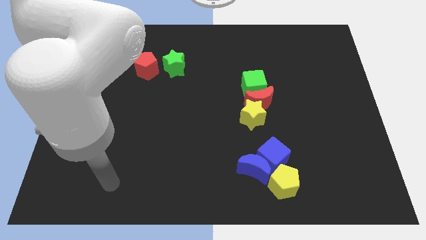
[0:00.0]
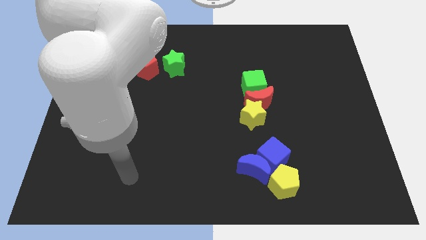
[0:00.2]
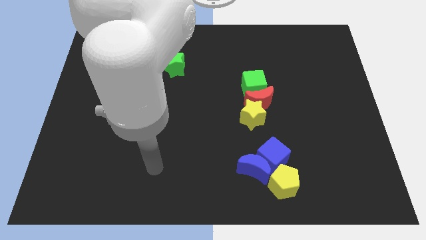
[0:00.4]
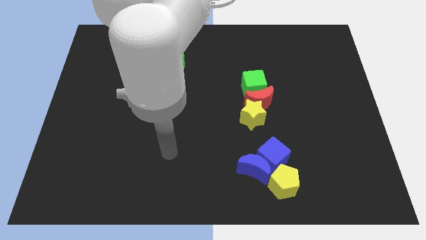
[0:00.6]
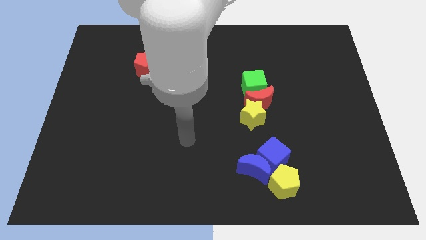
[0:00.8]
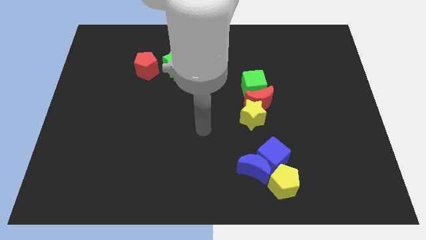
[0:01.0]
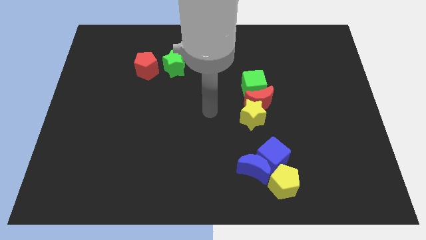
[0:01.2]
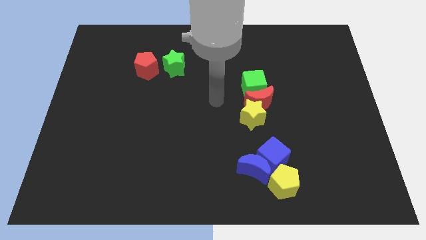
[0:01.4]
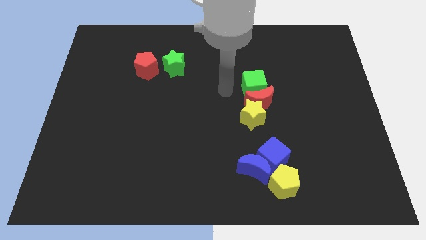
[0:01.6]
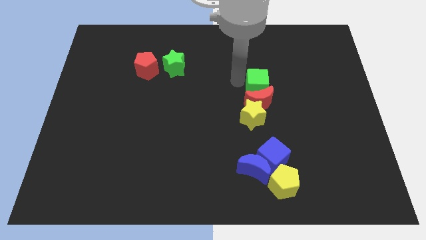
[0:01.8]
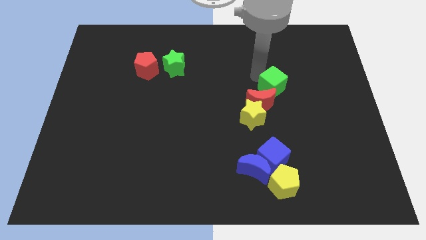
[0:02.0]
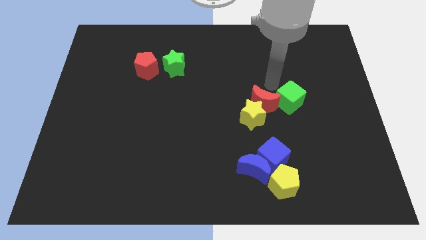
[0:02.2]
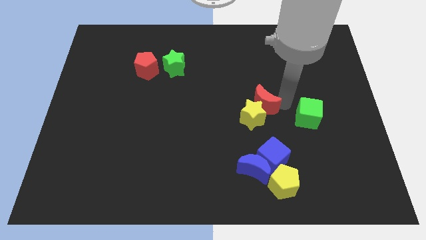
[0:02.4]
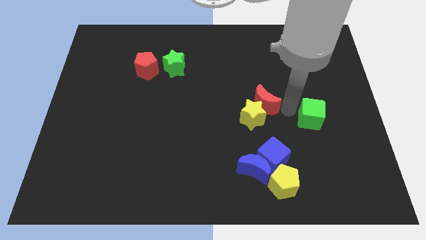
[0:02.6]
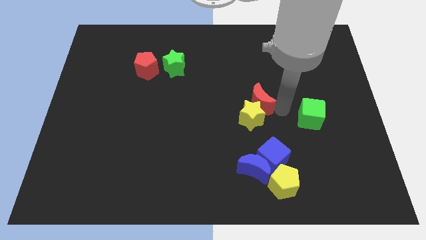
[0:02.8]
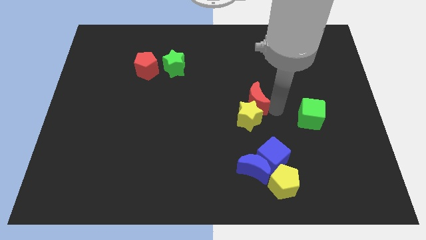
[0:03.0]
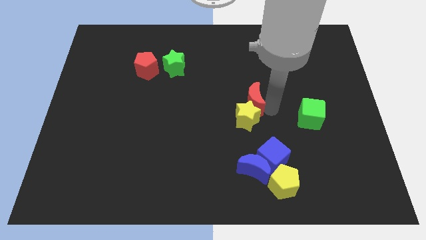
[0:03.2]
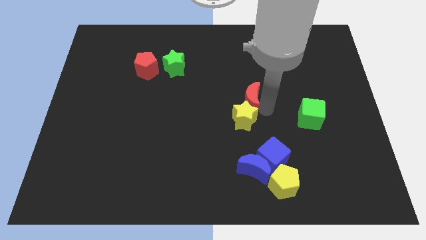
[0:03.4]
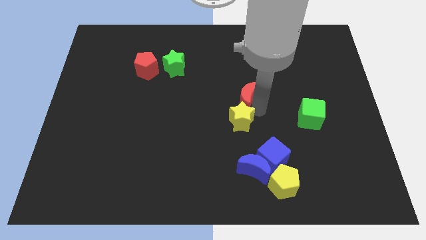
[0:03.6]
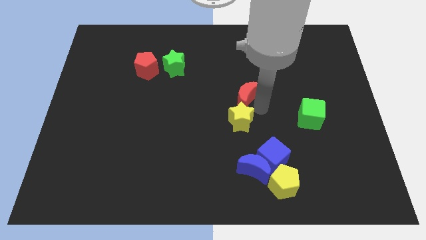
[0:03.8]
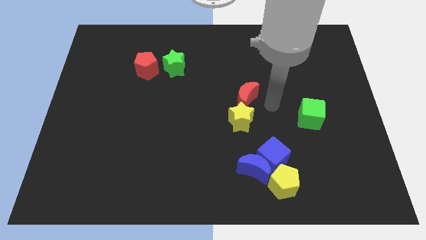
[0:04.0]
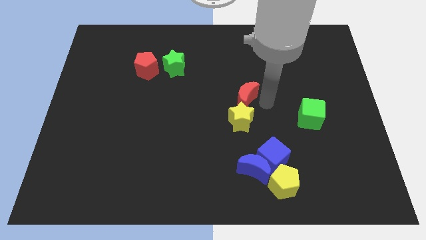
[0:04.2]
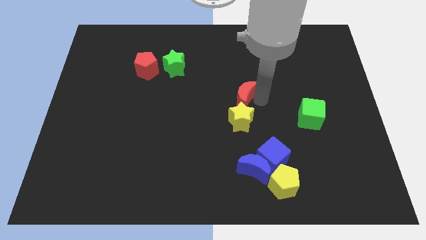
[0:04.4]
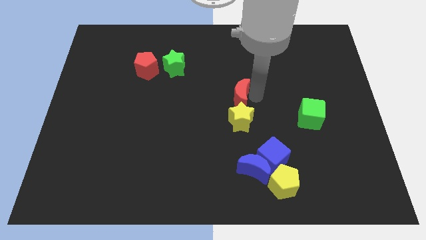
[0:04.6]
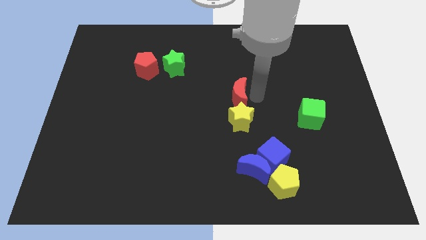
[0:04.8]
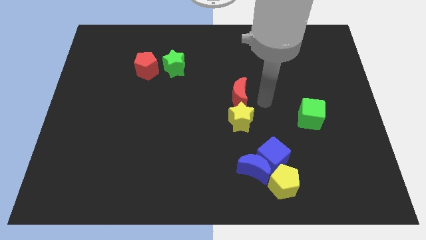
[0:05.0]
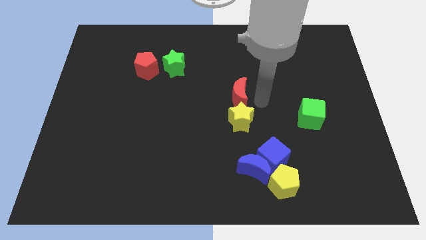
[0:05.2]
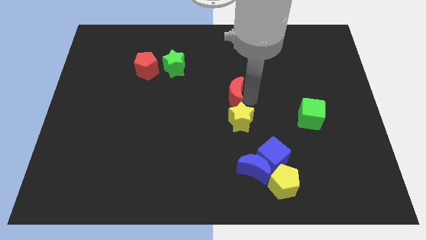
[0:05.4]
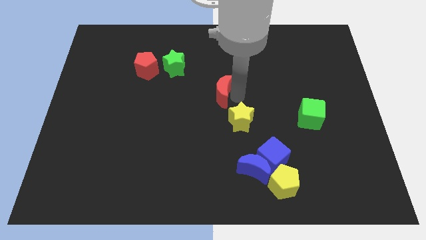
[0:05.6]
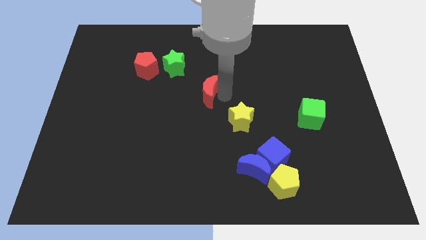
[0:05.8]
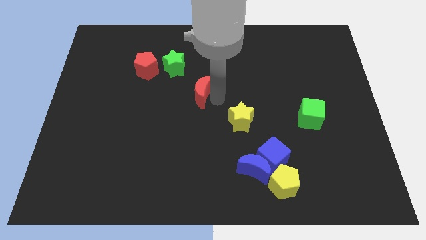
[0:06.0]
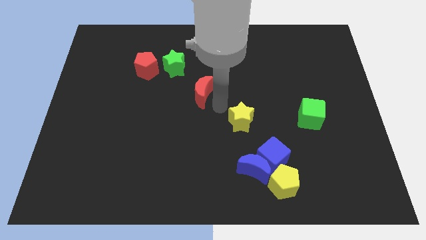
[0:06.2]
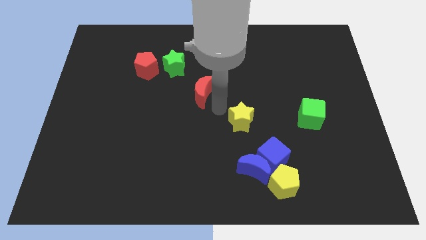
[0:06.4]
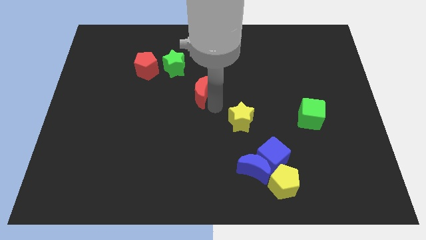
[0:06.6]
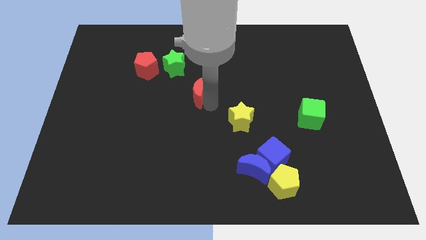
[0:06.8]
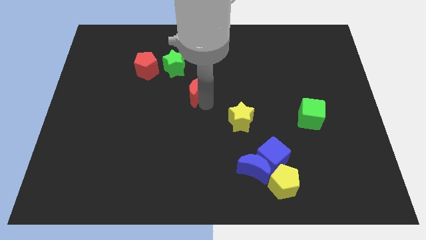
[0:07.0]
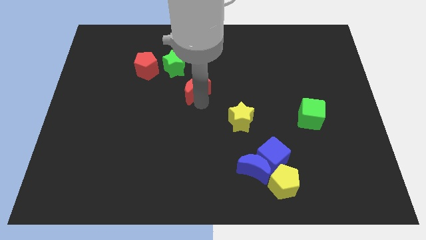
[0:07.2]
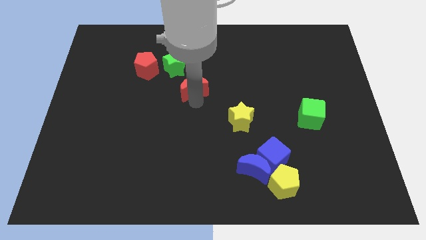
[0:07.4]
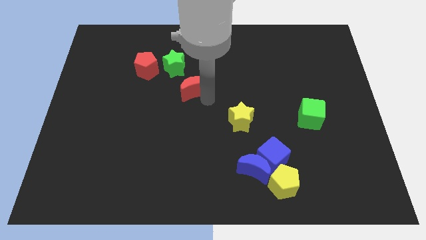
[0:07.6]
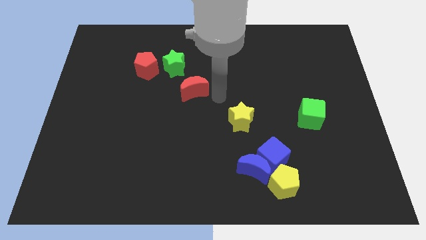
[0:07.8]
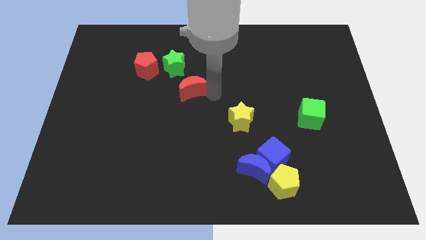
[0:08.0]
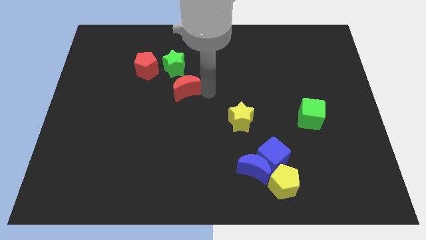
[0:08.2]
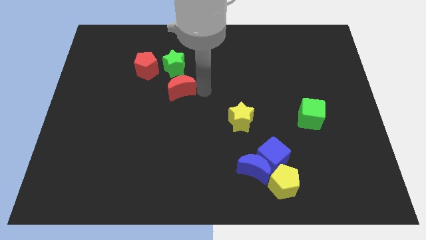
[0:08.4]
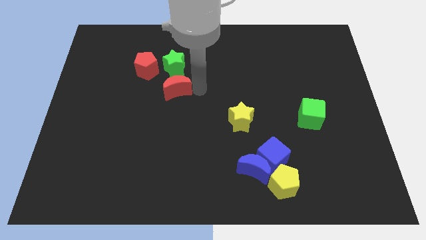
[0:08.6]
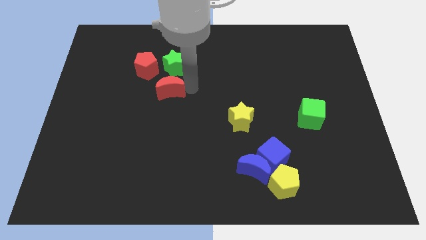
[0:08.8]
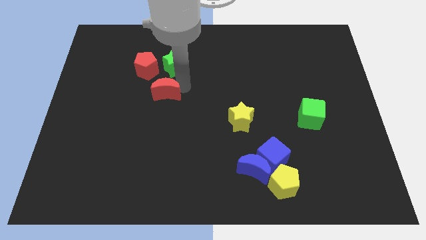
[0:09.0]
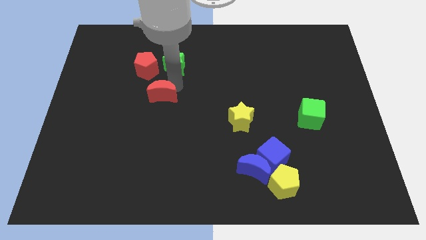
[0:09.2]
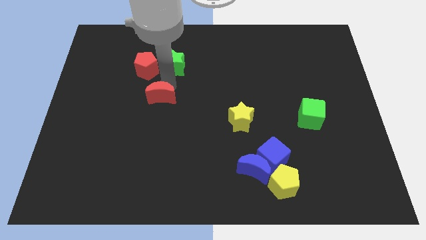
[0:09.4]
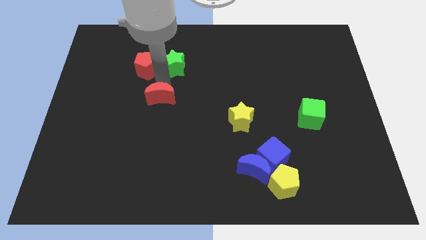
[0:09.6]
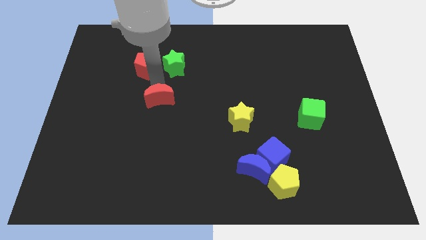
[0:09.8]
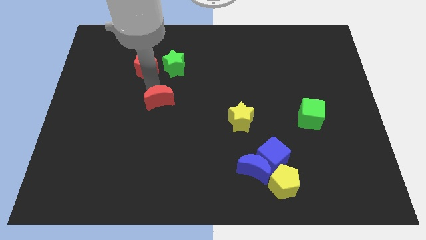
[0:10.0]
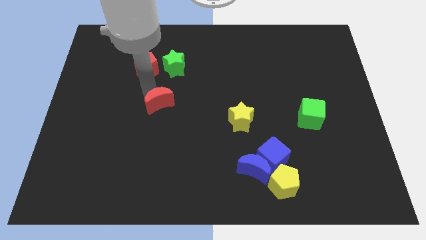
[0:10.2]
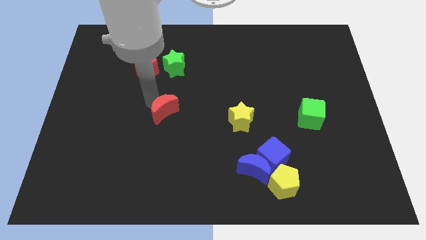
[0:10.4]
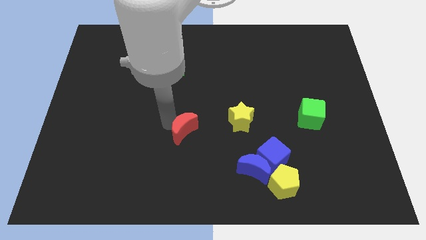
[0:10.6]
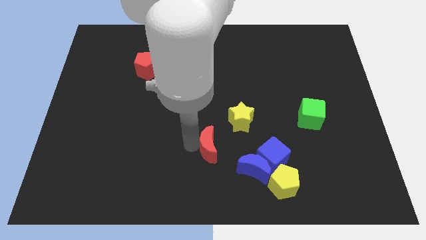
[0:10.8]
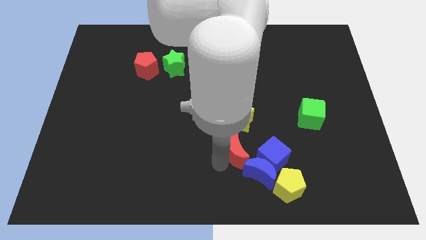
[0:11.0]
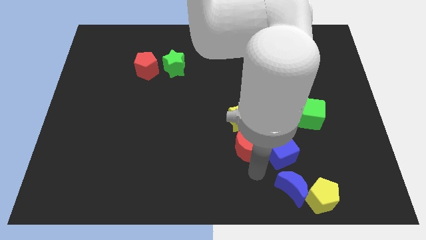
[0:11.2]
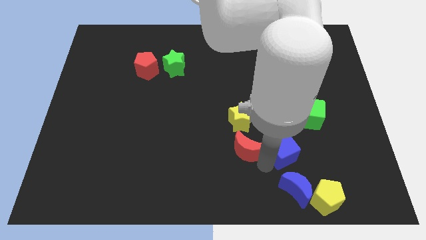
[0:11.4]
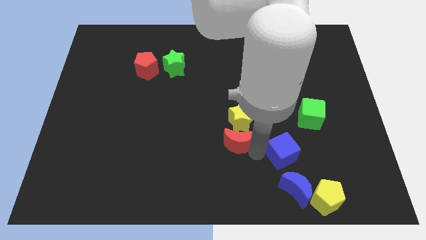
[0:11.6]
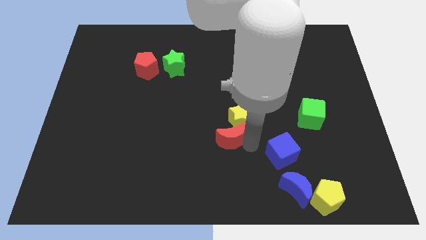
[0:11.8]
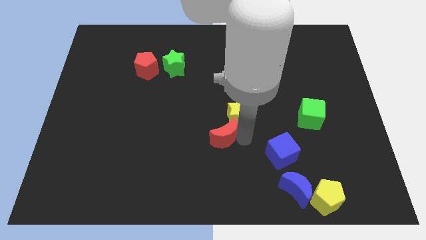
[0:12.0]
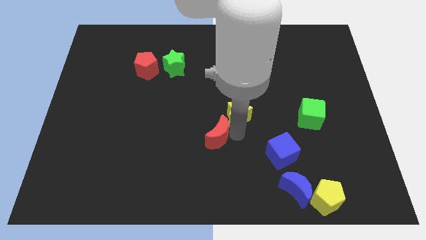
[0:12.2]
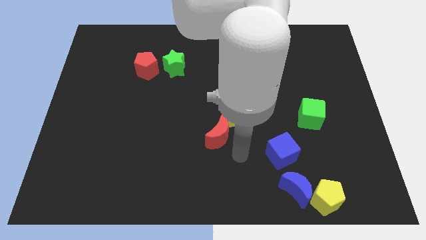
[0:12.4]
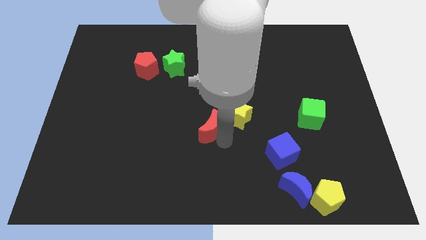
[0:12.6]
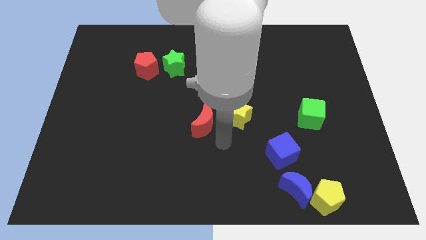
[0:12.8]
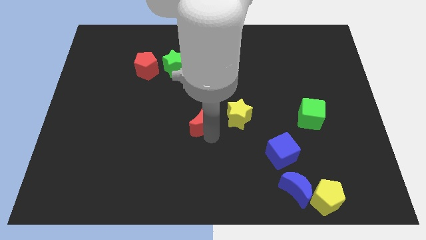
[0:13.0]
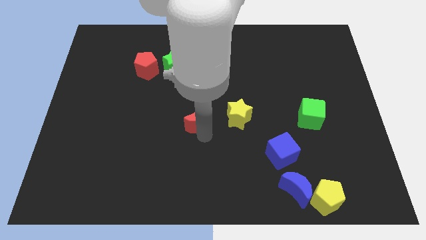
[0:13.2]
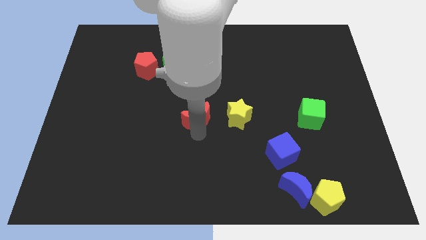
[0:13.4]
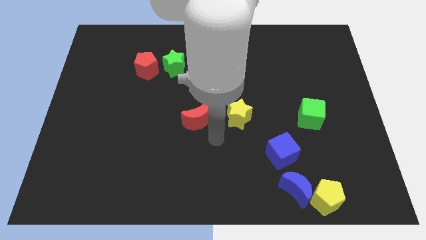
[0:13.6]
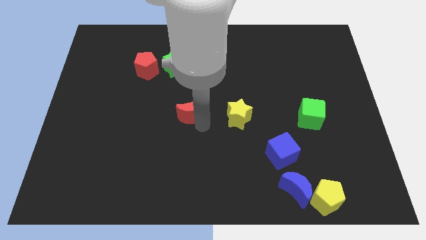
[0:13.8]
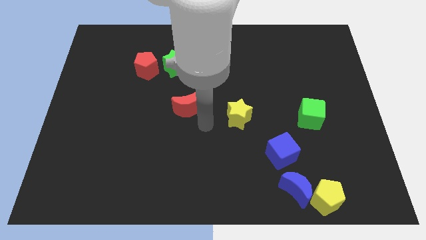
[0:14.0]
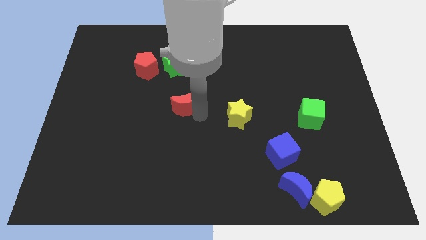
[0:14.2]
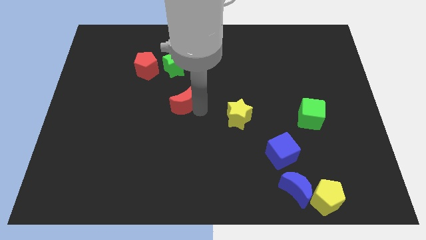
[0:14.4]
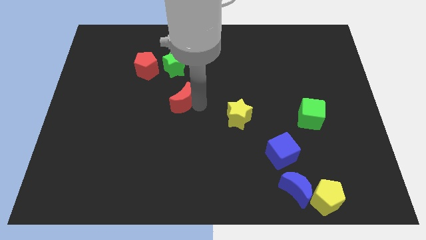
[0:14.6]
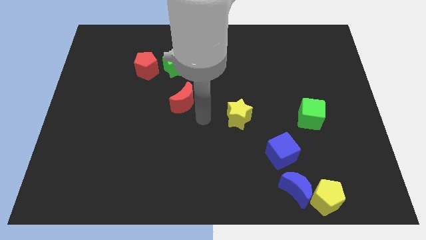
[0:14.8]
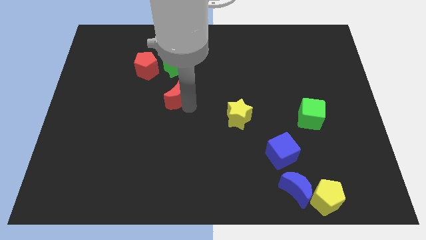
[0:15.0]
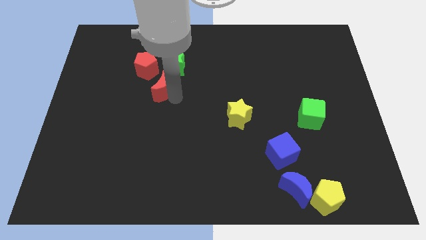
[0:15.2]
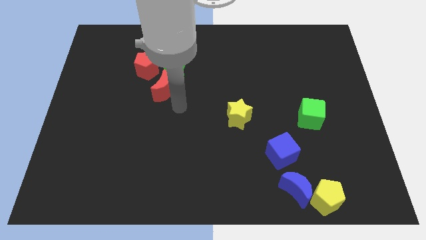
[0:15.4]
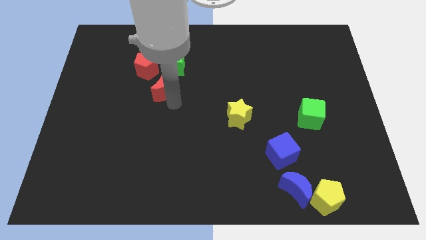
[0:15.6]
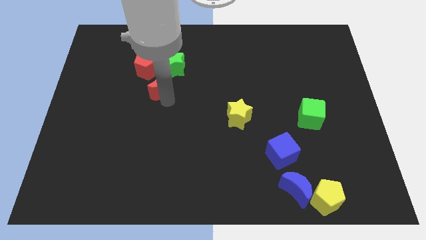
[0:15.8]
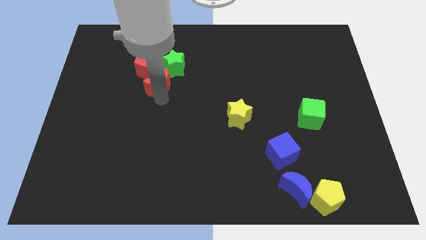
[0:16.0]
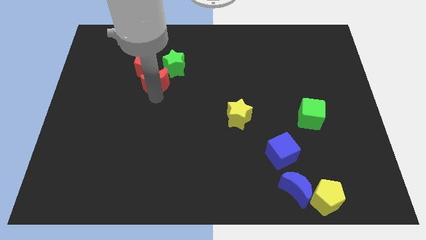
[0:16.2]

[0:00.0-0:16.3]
slide the red moon close to the red pentagon
